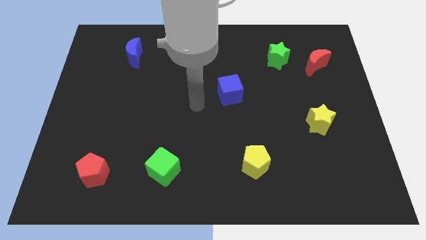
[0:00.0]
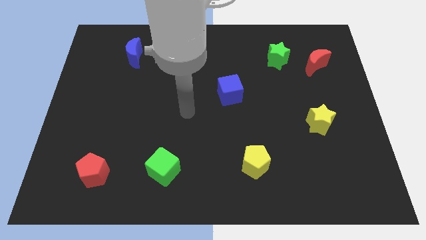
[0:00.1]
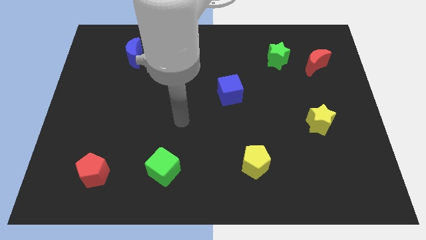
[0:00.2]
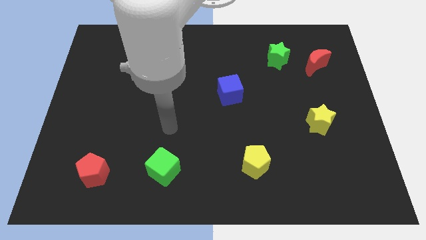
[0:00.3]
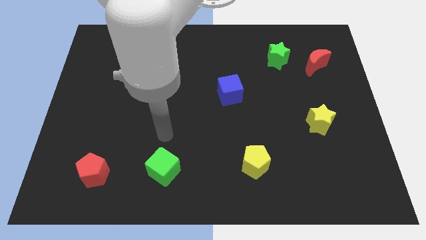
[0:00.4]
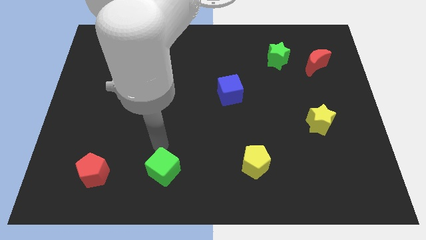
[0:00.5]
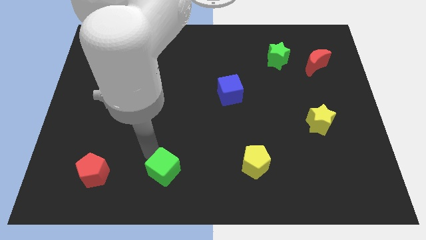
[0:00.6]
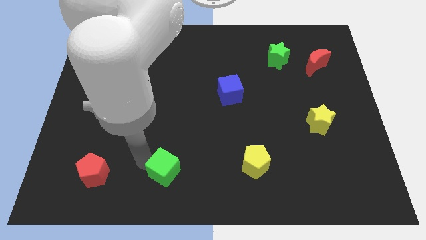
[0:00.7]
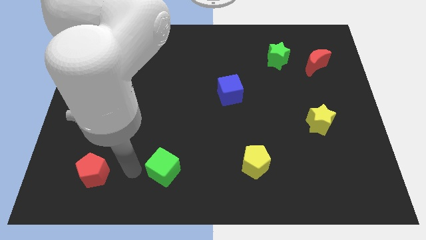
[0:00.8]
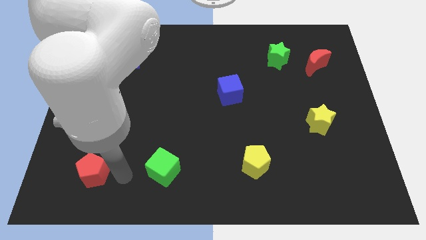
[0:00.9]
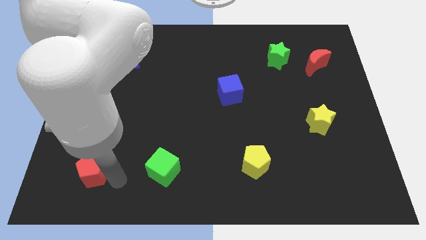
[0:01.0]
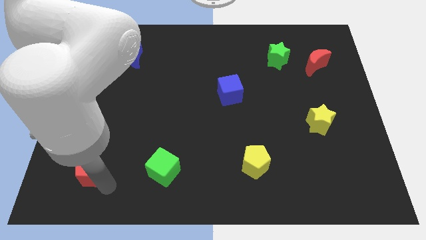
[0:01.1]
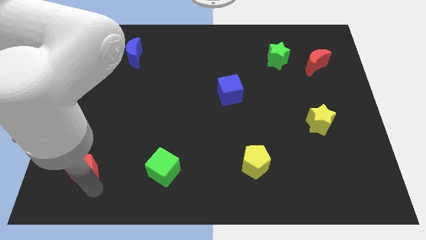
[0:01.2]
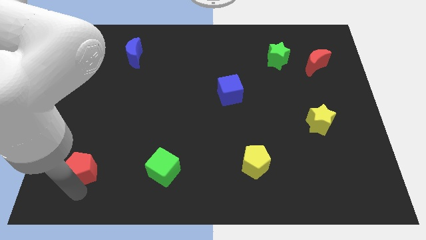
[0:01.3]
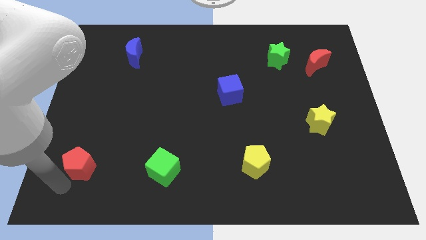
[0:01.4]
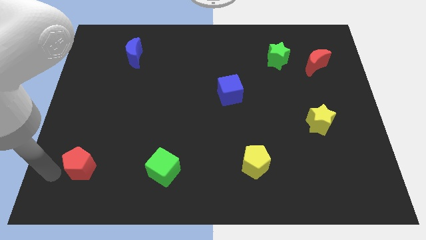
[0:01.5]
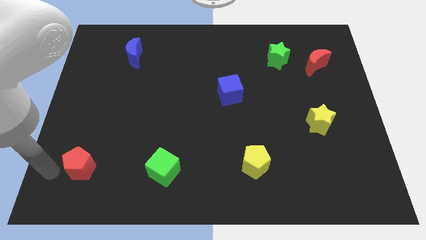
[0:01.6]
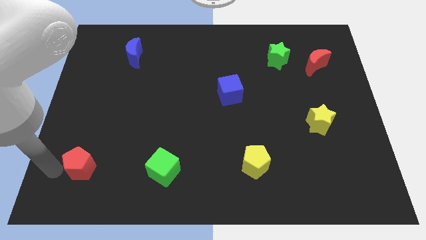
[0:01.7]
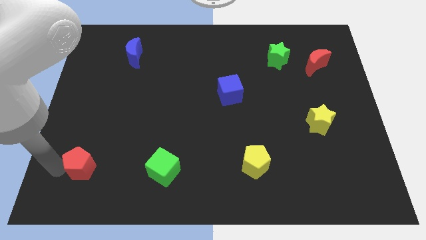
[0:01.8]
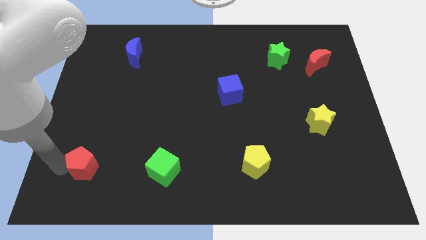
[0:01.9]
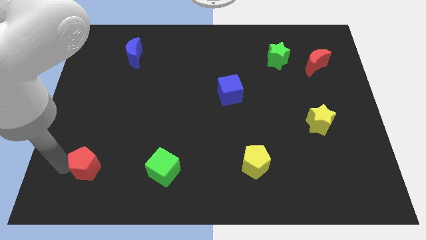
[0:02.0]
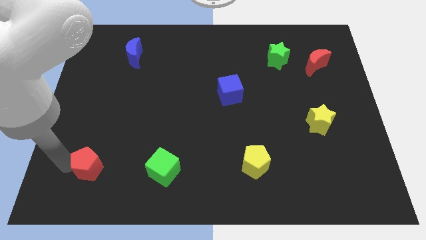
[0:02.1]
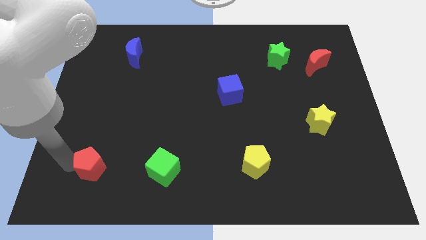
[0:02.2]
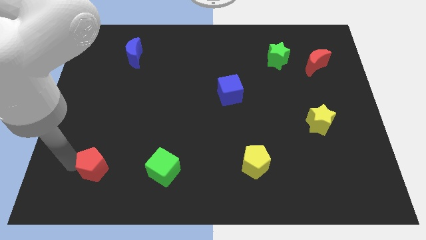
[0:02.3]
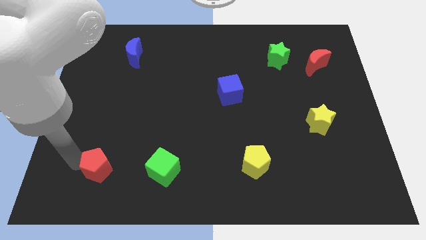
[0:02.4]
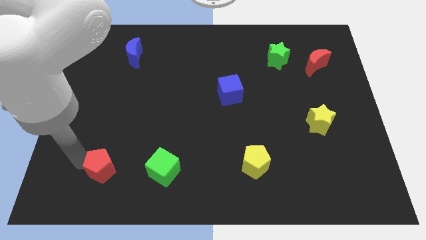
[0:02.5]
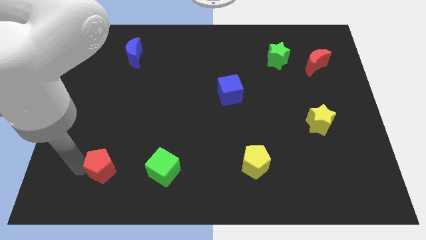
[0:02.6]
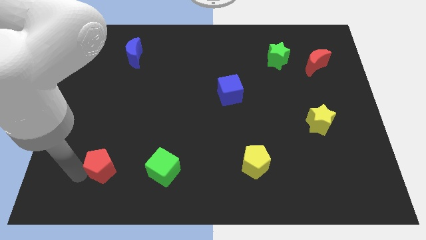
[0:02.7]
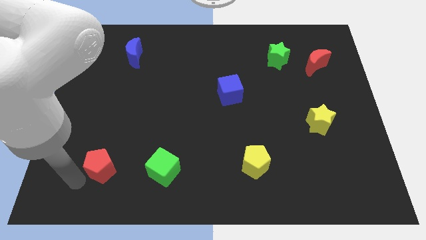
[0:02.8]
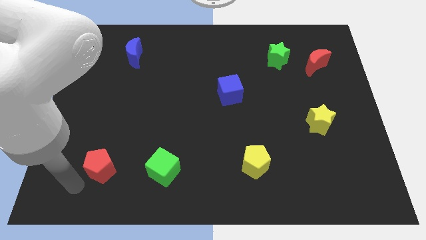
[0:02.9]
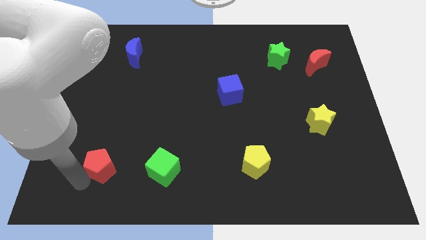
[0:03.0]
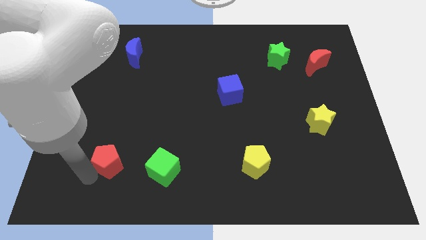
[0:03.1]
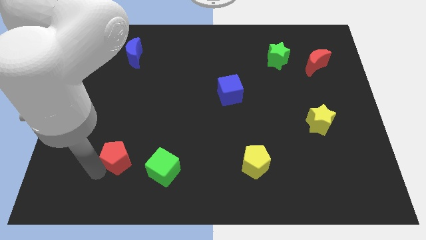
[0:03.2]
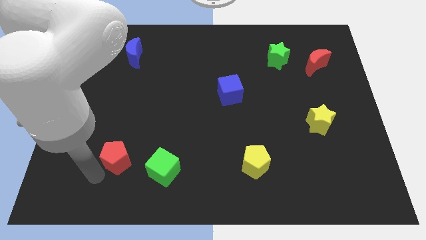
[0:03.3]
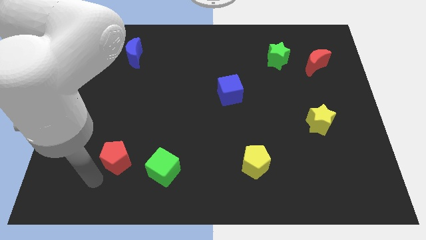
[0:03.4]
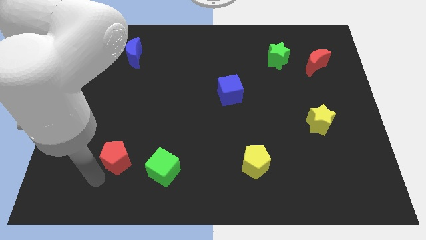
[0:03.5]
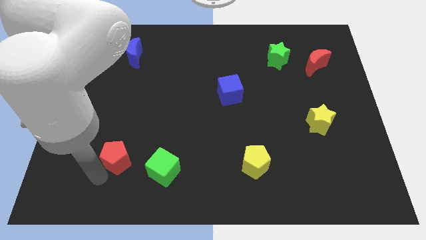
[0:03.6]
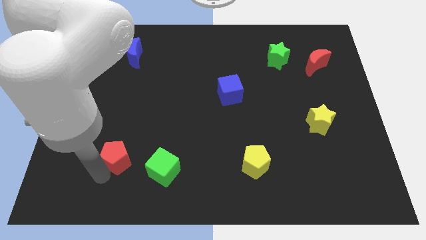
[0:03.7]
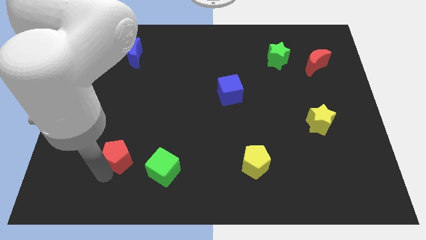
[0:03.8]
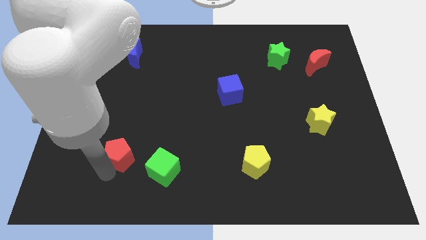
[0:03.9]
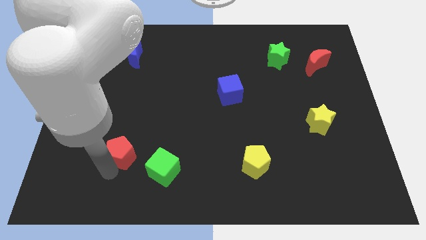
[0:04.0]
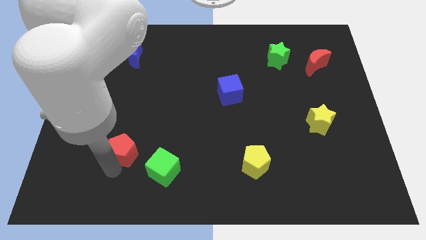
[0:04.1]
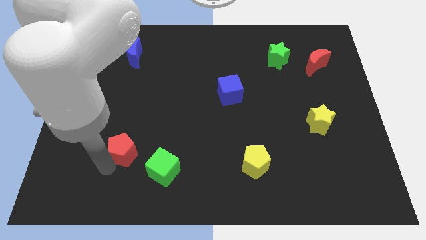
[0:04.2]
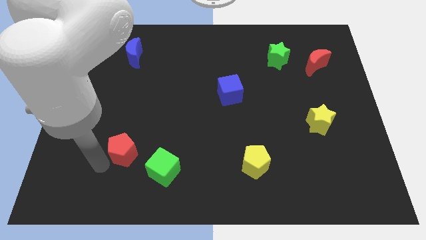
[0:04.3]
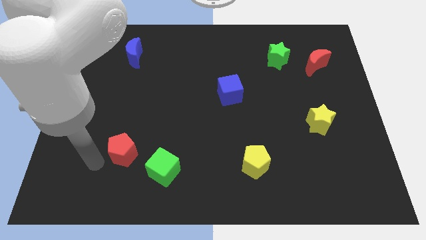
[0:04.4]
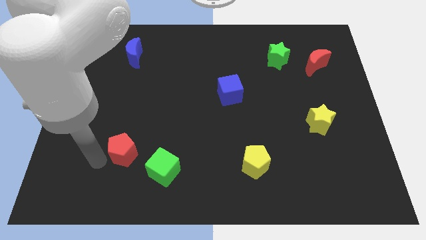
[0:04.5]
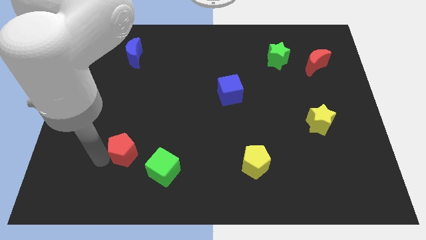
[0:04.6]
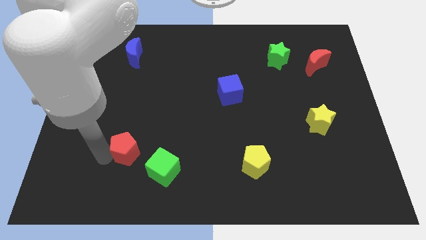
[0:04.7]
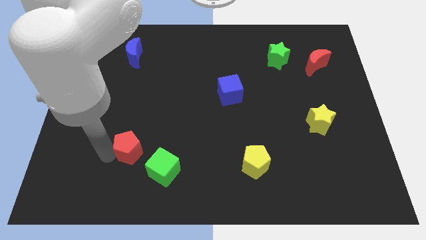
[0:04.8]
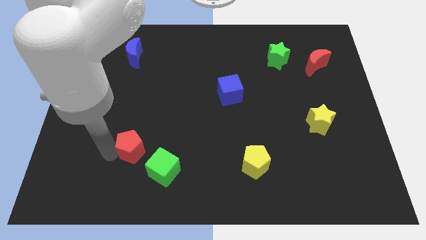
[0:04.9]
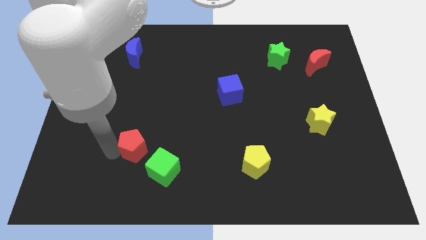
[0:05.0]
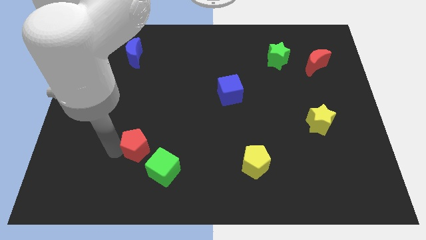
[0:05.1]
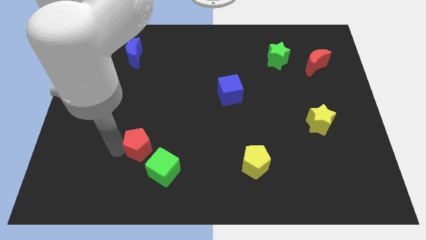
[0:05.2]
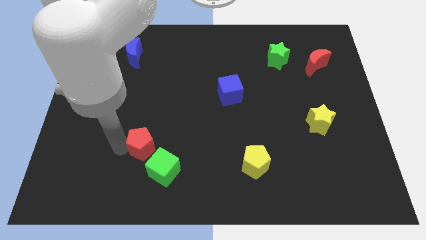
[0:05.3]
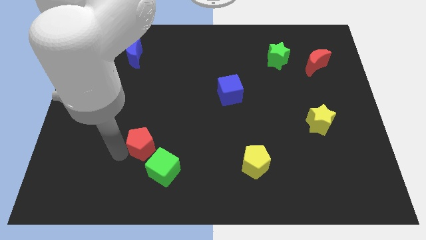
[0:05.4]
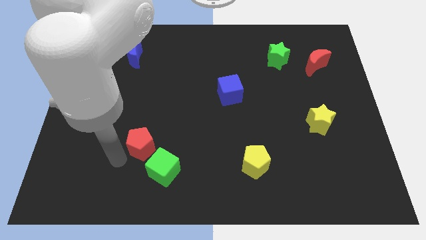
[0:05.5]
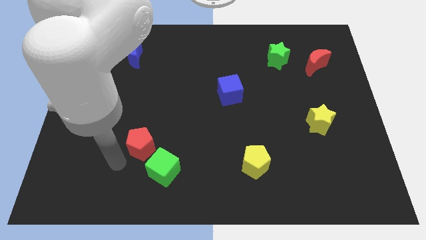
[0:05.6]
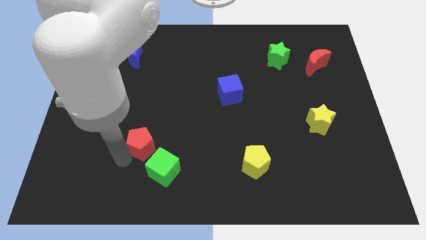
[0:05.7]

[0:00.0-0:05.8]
slide the red pentagon to the top of the green cube

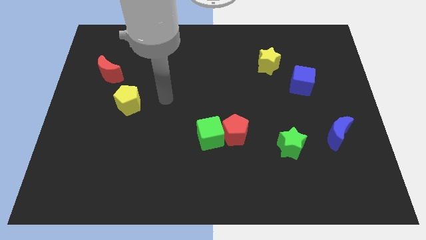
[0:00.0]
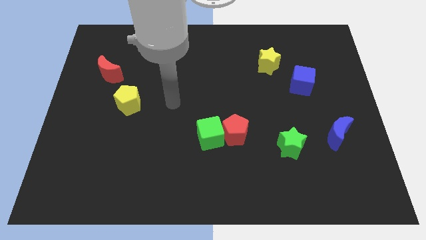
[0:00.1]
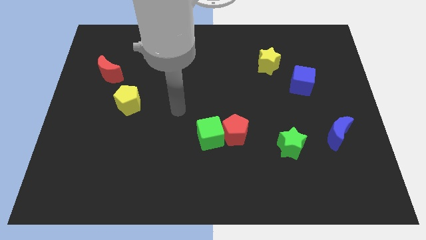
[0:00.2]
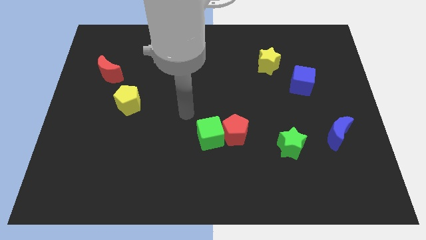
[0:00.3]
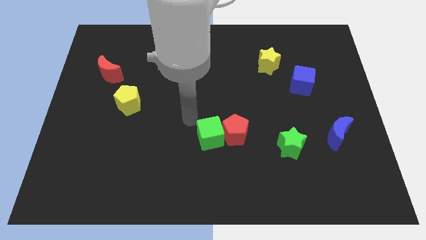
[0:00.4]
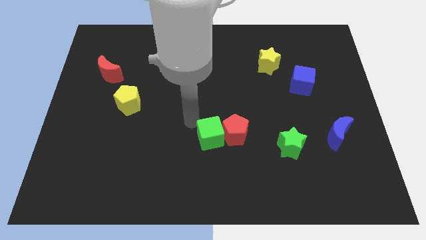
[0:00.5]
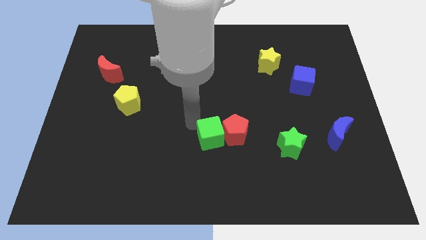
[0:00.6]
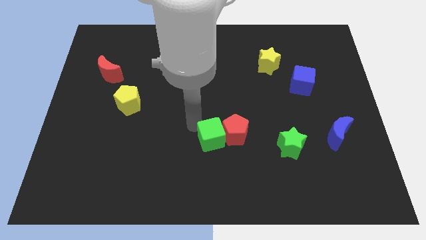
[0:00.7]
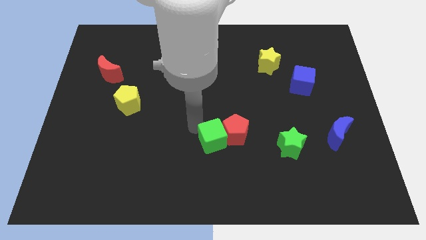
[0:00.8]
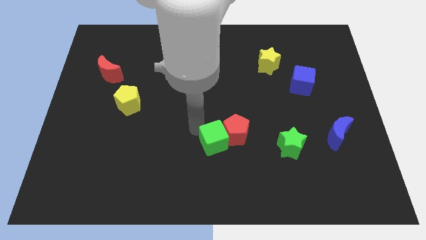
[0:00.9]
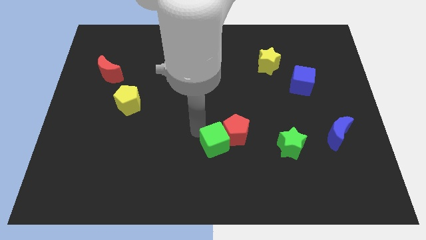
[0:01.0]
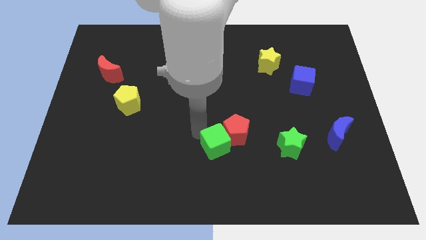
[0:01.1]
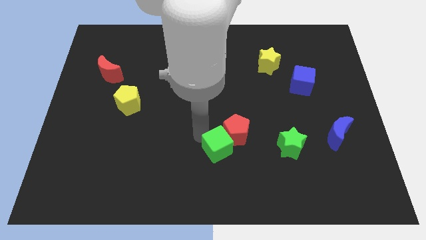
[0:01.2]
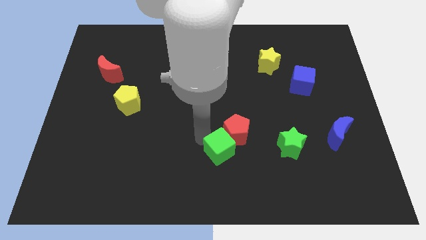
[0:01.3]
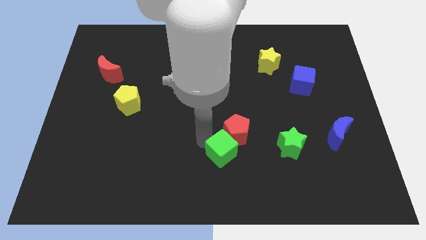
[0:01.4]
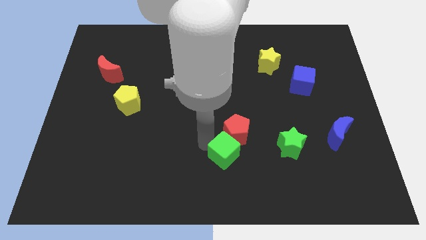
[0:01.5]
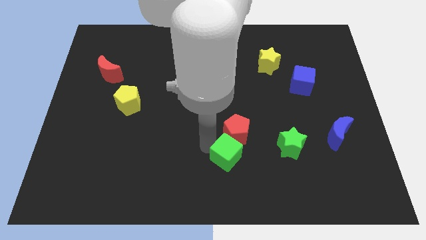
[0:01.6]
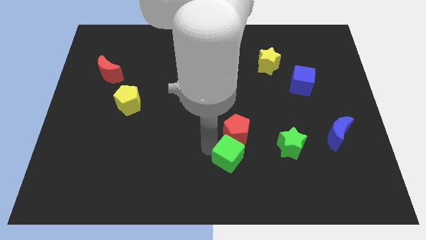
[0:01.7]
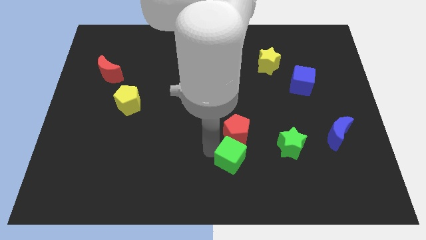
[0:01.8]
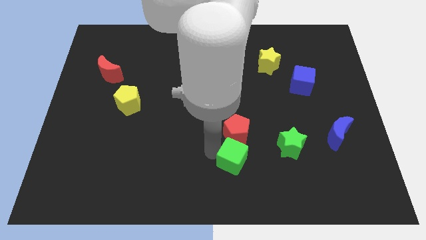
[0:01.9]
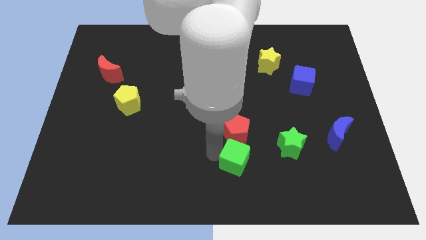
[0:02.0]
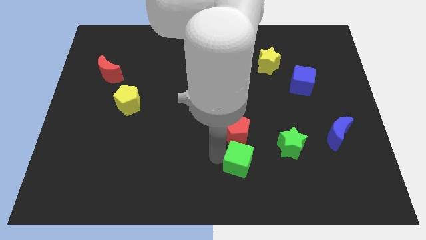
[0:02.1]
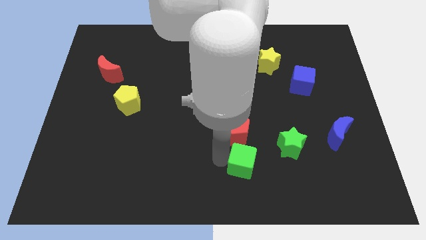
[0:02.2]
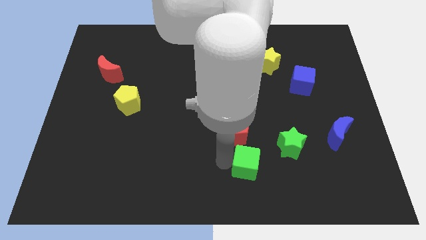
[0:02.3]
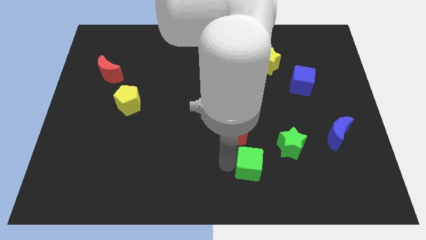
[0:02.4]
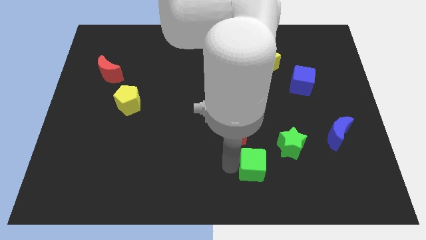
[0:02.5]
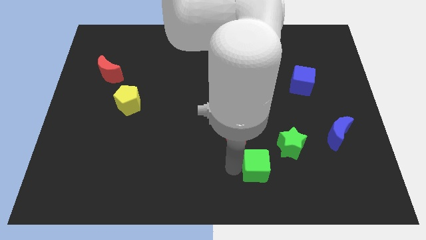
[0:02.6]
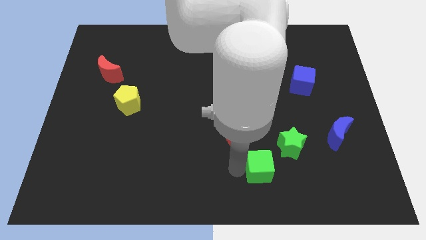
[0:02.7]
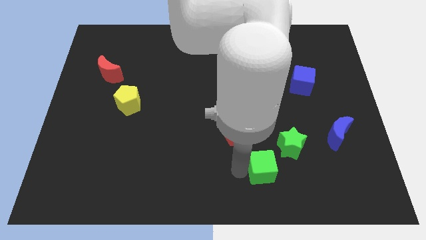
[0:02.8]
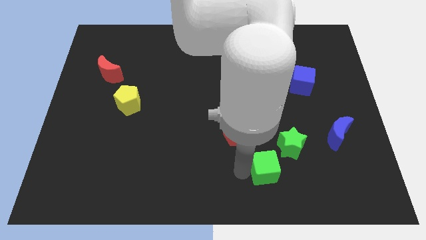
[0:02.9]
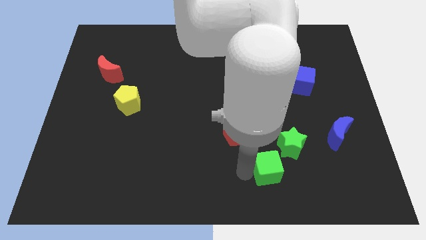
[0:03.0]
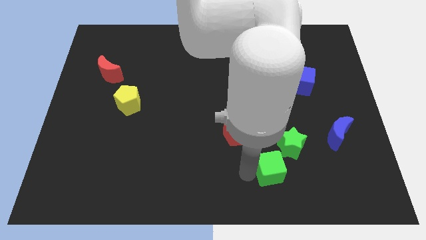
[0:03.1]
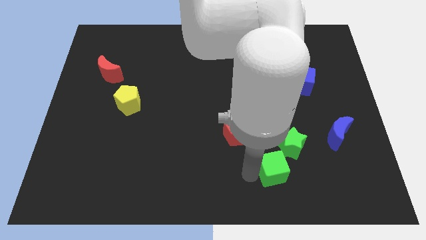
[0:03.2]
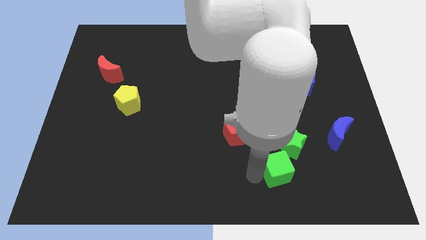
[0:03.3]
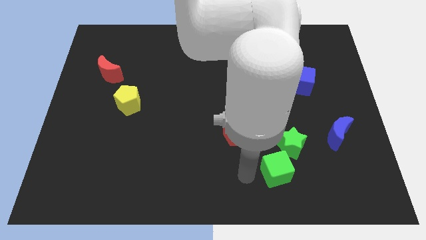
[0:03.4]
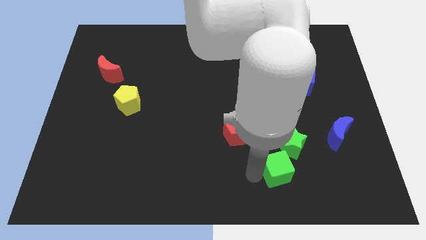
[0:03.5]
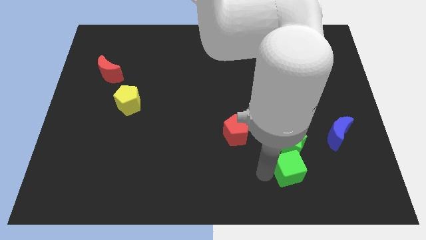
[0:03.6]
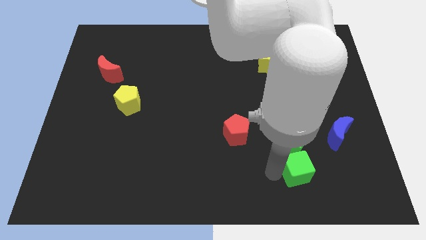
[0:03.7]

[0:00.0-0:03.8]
slide the green cube diagonally down and to the right of the green star
